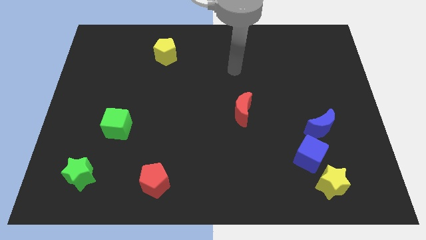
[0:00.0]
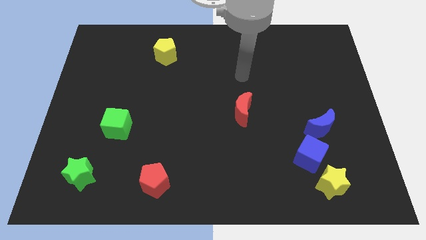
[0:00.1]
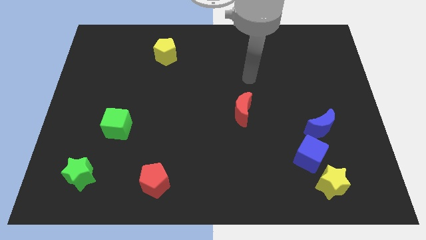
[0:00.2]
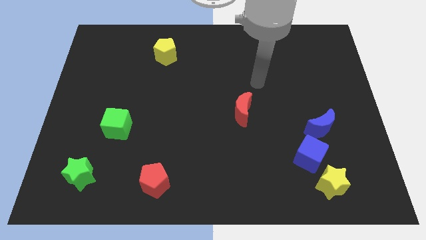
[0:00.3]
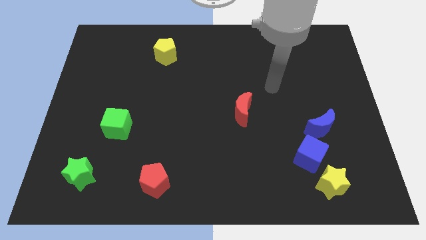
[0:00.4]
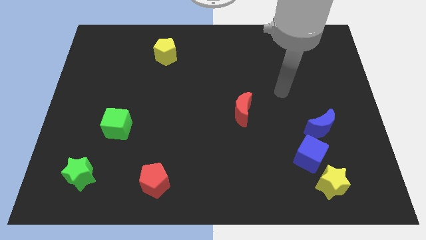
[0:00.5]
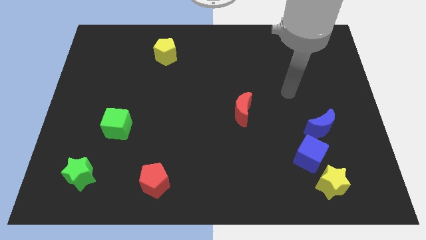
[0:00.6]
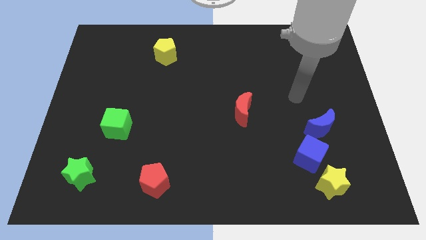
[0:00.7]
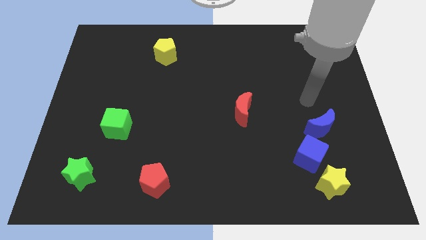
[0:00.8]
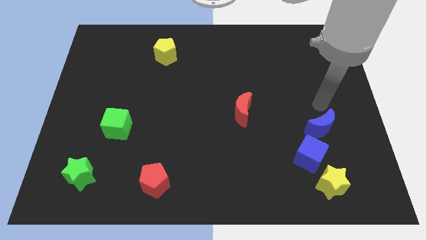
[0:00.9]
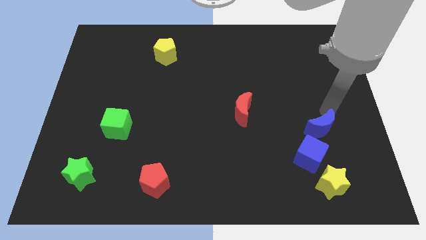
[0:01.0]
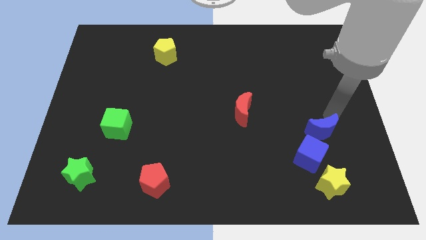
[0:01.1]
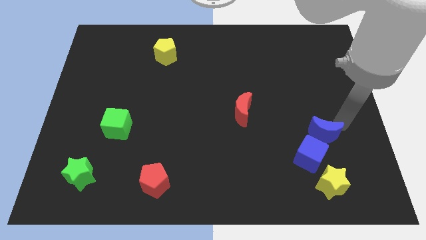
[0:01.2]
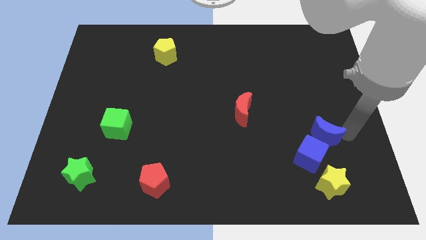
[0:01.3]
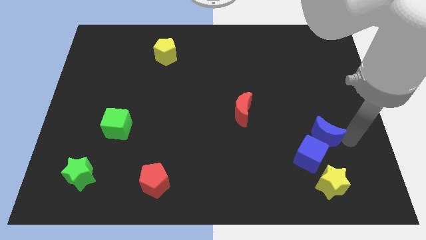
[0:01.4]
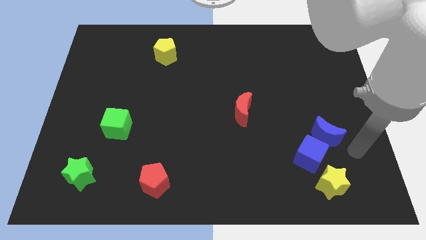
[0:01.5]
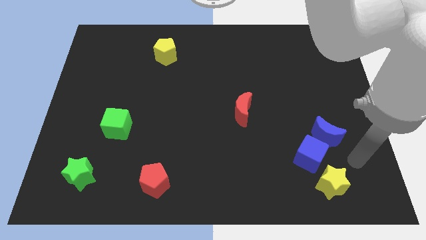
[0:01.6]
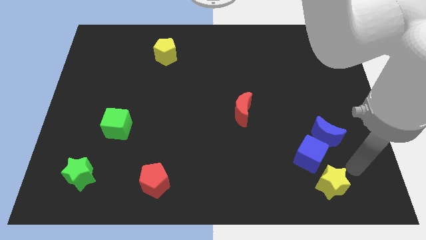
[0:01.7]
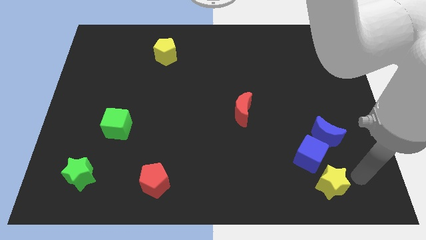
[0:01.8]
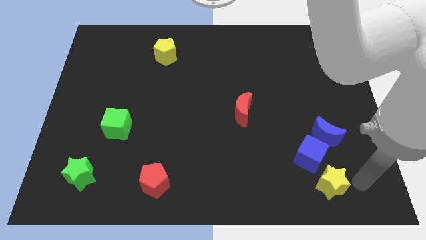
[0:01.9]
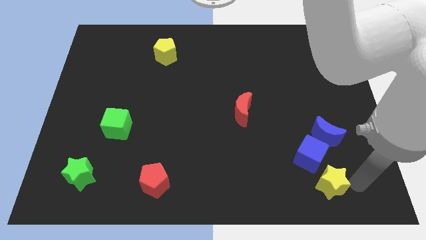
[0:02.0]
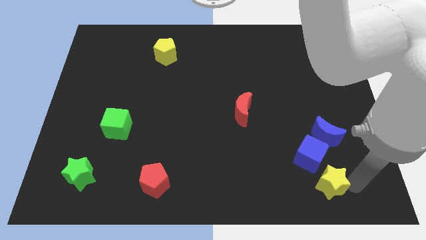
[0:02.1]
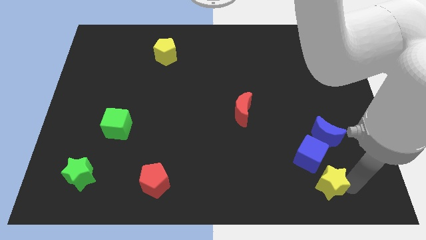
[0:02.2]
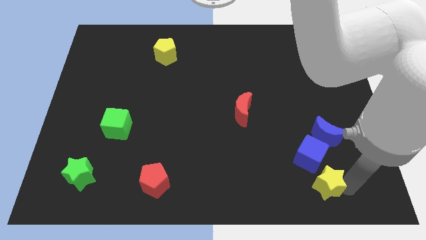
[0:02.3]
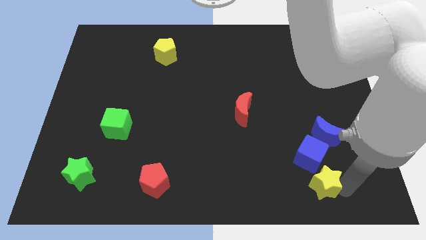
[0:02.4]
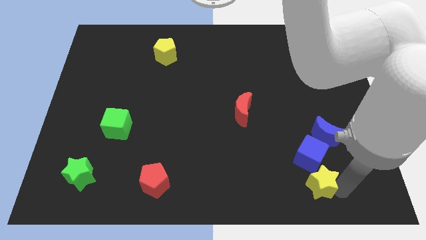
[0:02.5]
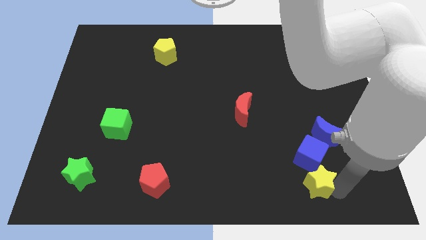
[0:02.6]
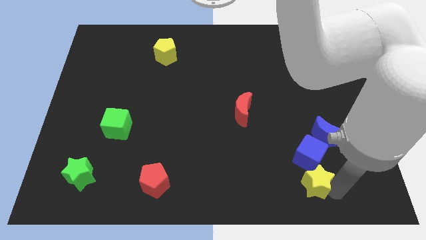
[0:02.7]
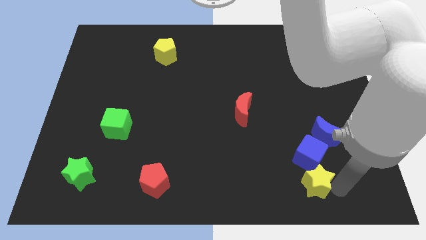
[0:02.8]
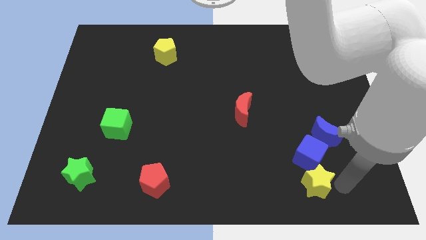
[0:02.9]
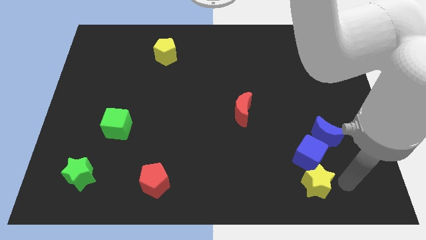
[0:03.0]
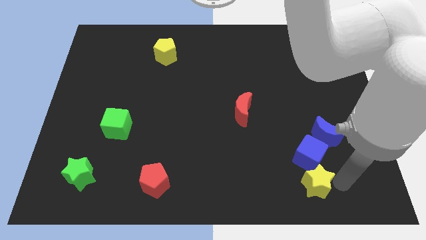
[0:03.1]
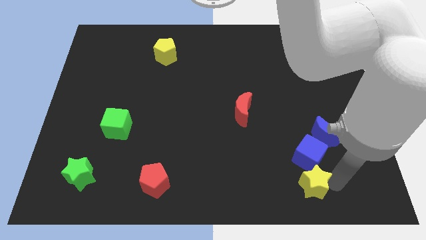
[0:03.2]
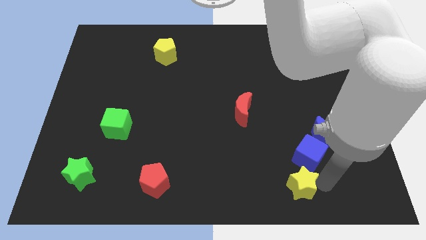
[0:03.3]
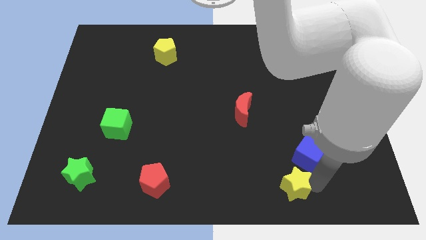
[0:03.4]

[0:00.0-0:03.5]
move the yellow star somewhat to the left

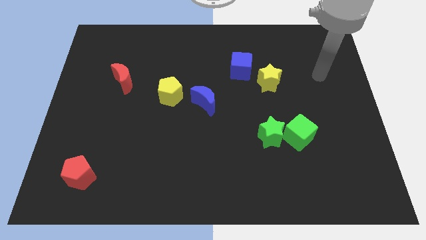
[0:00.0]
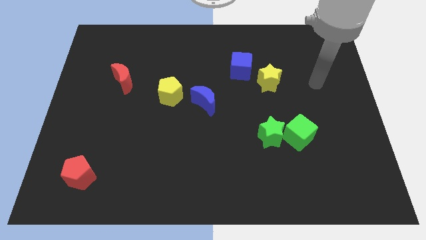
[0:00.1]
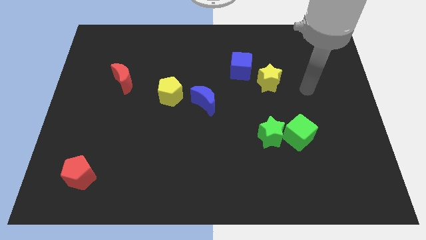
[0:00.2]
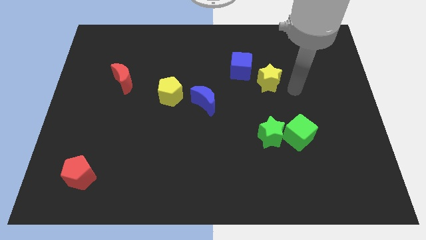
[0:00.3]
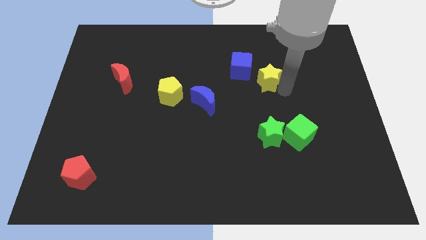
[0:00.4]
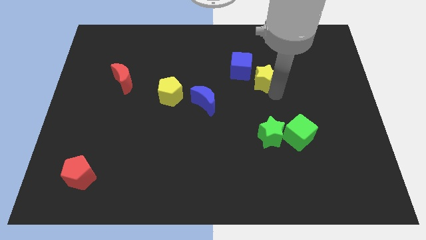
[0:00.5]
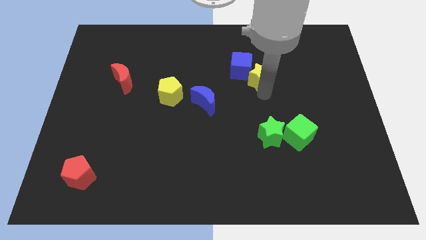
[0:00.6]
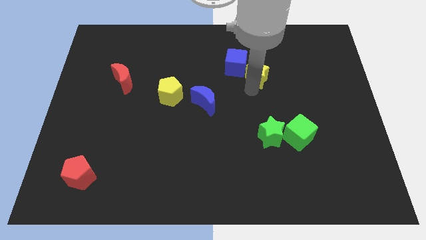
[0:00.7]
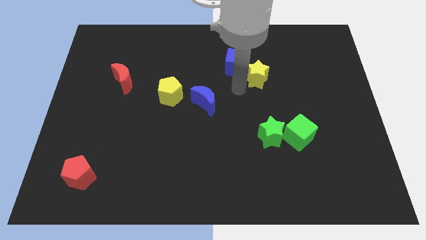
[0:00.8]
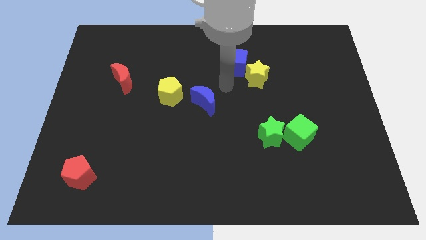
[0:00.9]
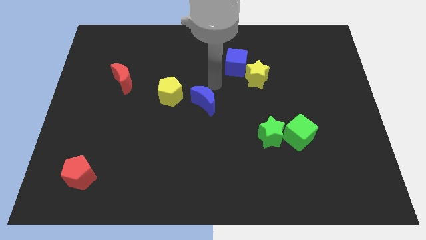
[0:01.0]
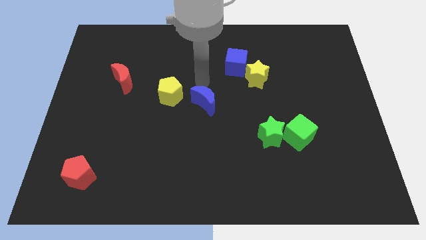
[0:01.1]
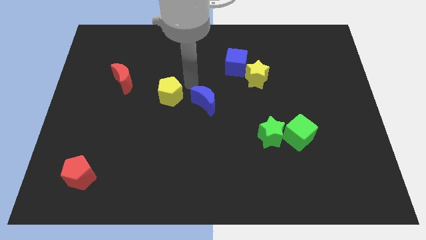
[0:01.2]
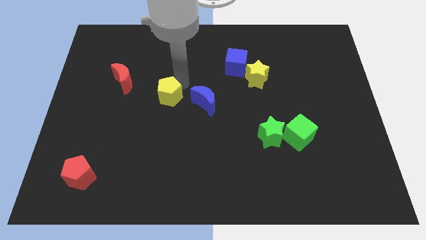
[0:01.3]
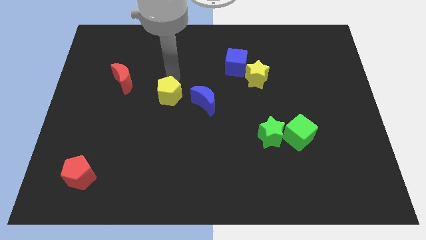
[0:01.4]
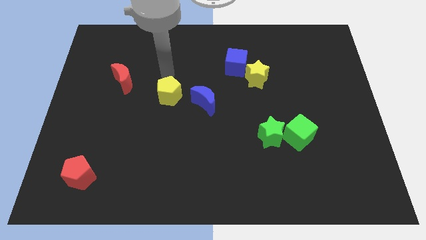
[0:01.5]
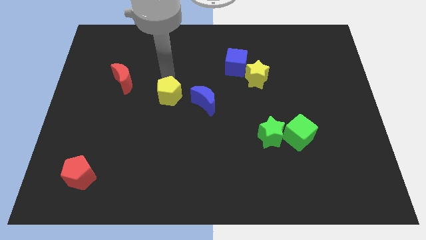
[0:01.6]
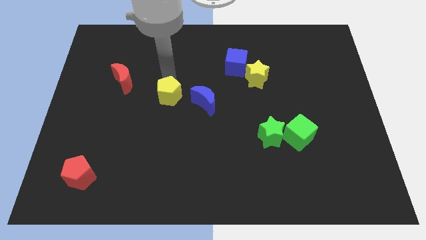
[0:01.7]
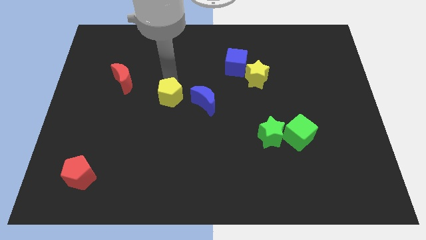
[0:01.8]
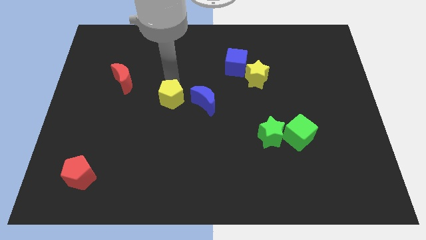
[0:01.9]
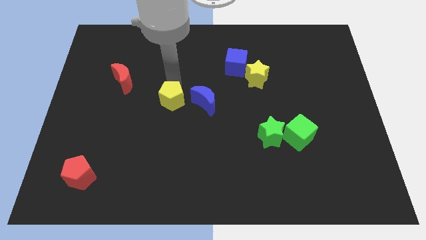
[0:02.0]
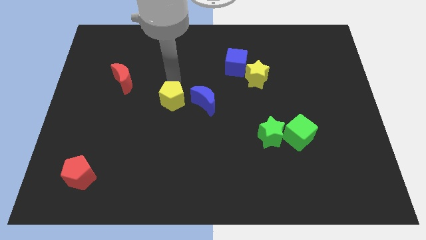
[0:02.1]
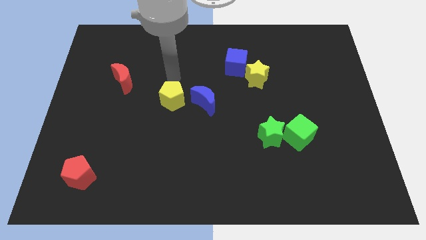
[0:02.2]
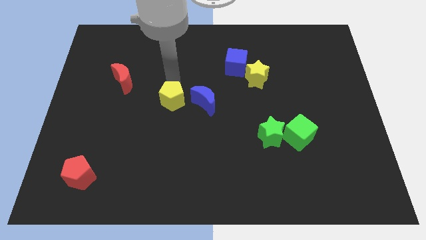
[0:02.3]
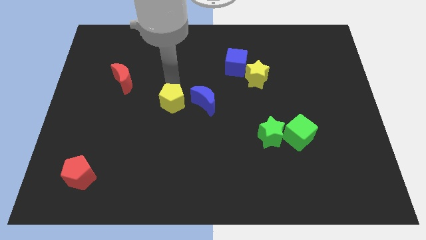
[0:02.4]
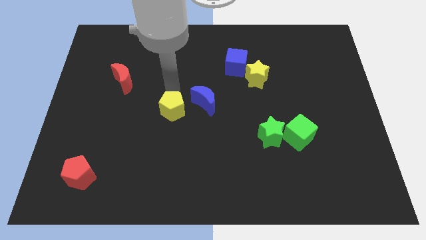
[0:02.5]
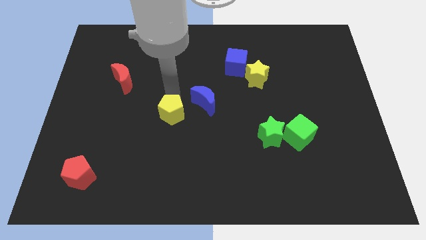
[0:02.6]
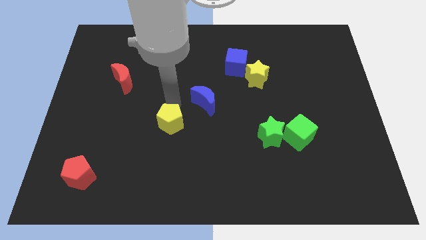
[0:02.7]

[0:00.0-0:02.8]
slightly move the yellow pentagon down

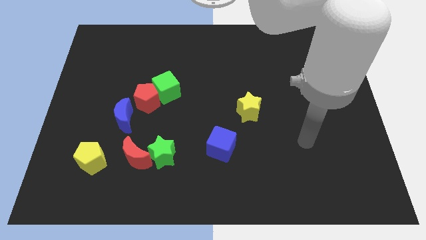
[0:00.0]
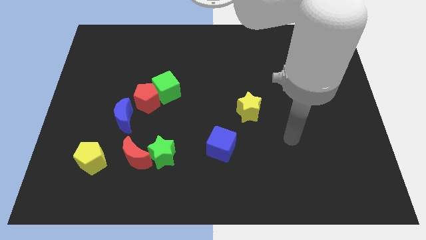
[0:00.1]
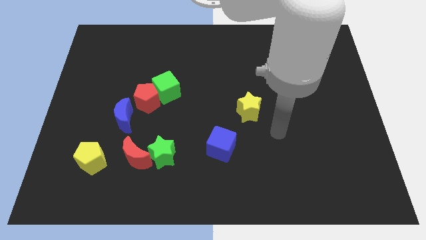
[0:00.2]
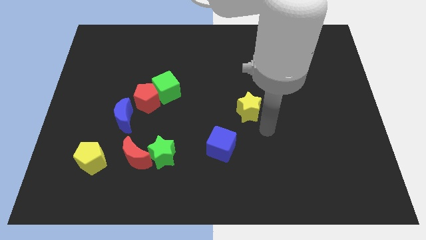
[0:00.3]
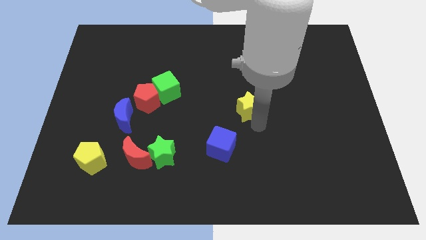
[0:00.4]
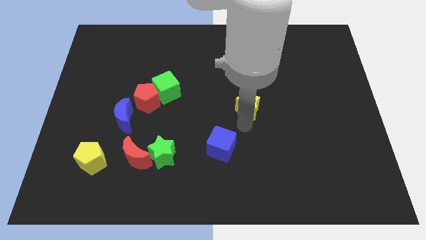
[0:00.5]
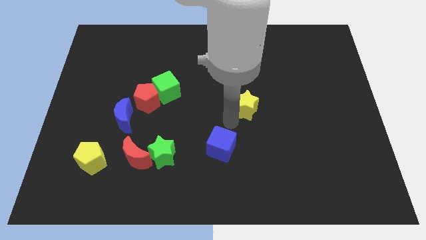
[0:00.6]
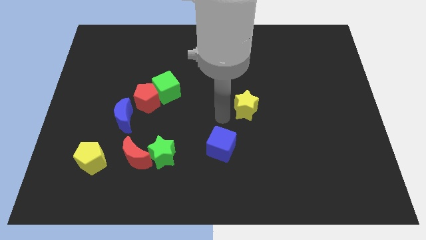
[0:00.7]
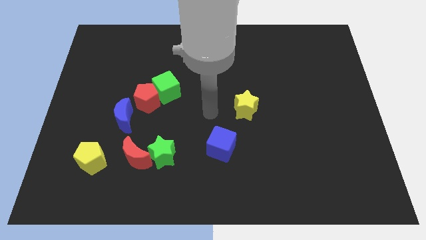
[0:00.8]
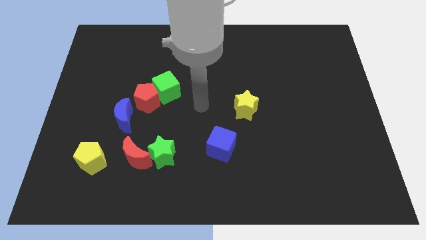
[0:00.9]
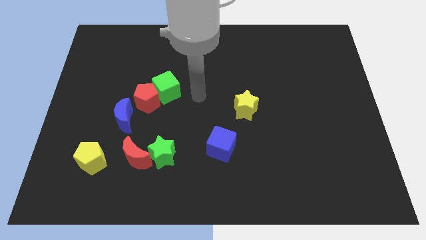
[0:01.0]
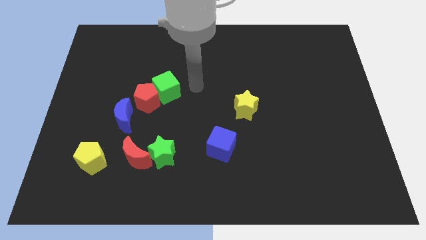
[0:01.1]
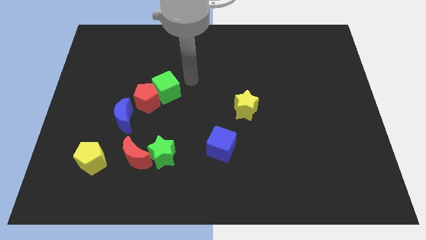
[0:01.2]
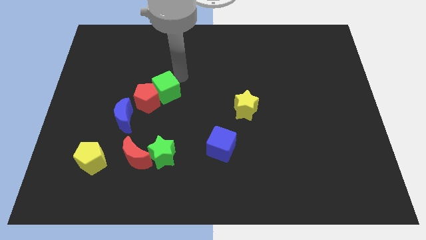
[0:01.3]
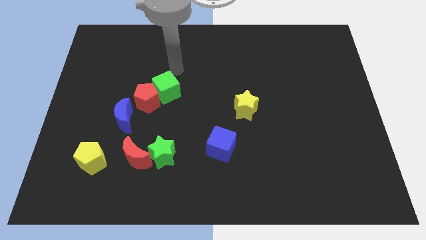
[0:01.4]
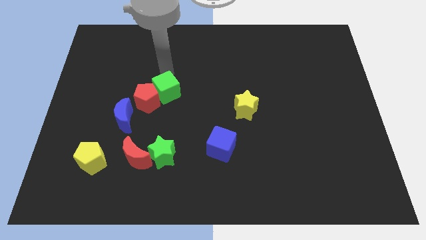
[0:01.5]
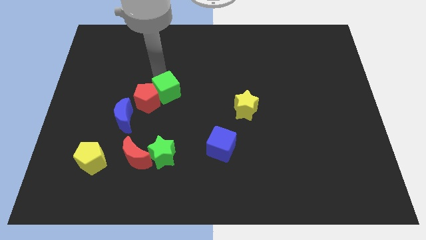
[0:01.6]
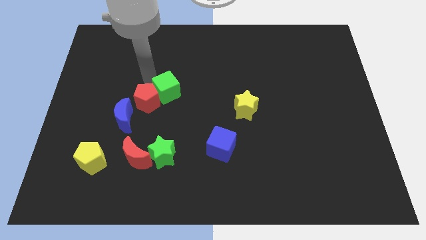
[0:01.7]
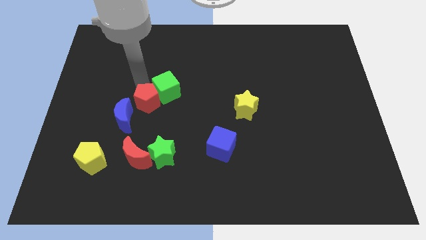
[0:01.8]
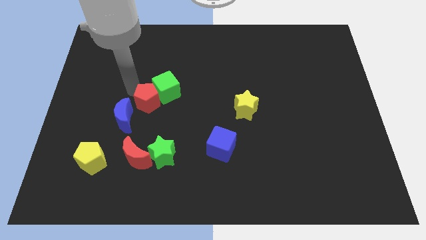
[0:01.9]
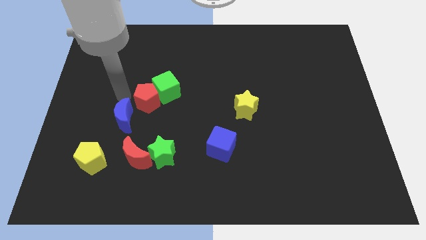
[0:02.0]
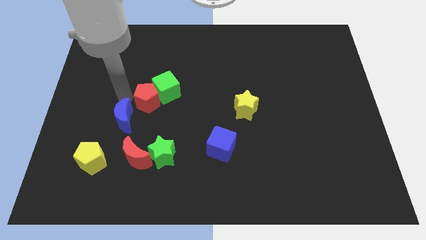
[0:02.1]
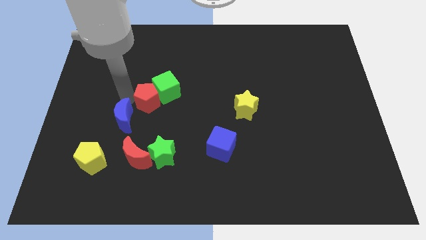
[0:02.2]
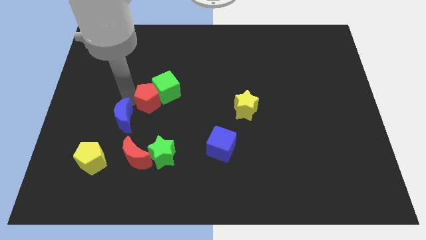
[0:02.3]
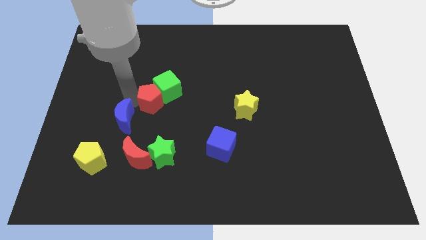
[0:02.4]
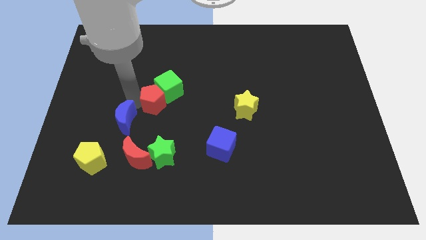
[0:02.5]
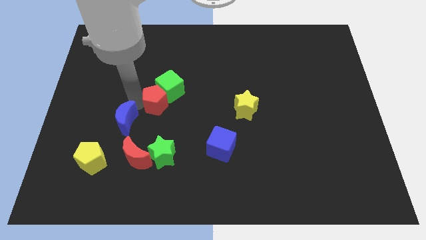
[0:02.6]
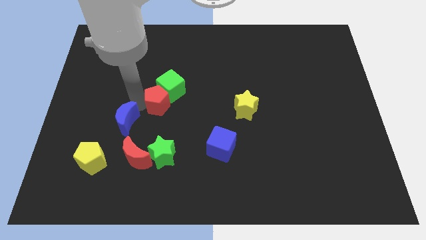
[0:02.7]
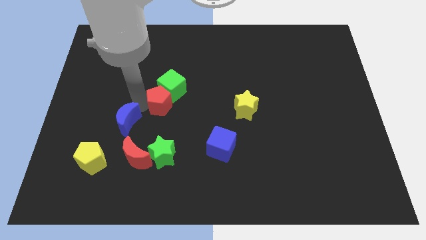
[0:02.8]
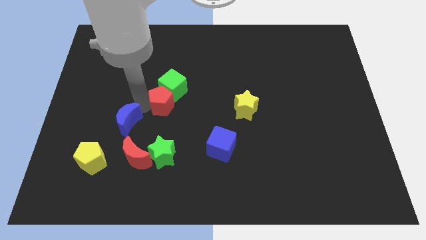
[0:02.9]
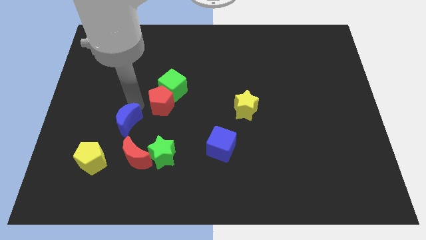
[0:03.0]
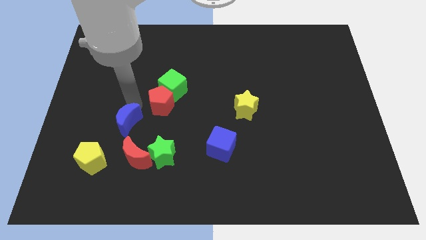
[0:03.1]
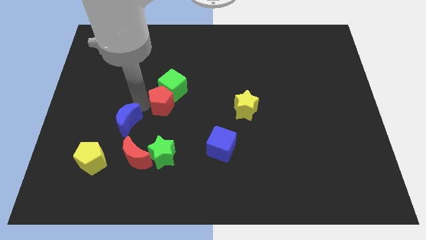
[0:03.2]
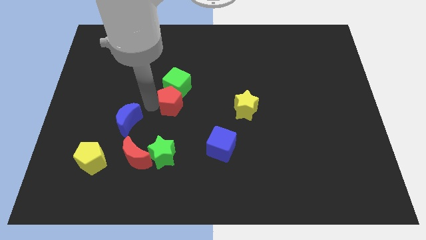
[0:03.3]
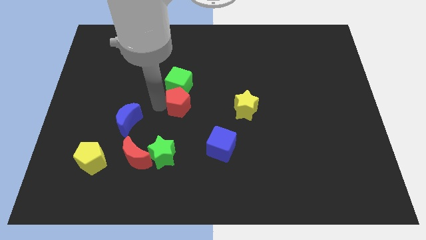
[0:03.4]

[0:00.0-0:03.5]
slightly push the red pentagon to the right
